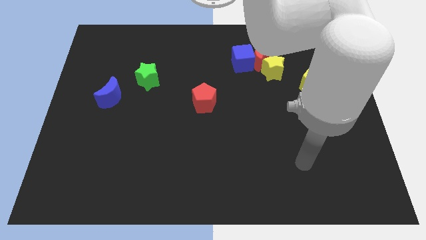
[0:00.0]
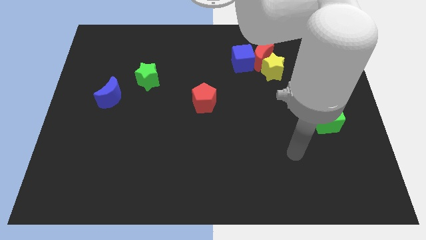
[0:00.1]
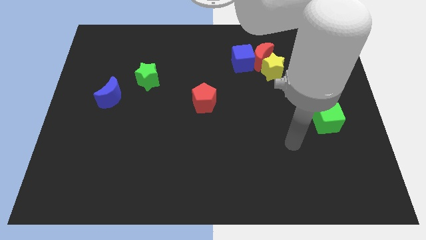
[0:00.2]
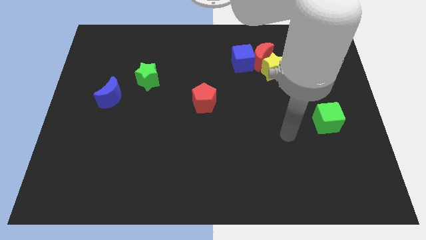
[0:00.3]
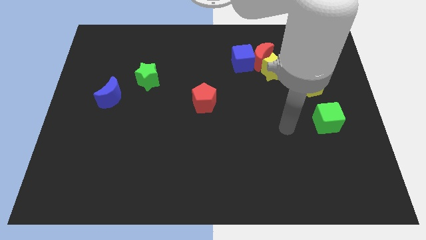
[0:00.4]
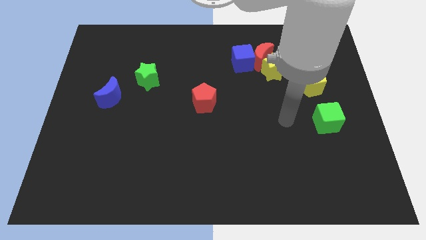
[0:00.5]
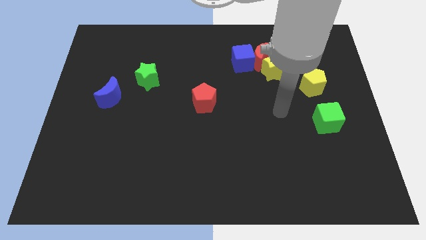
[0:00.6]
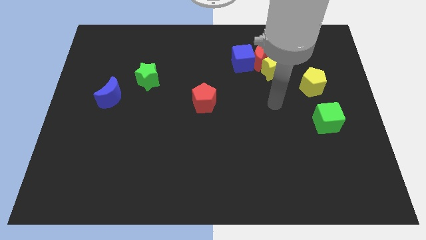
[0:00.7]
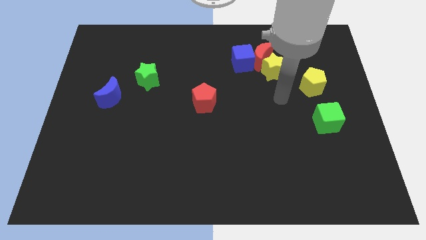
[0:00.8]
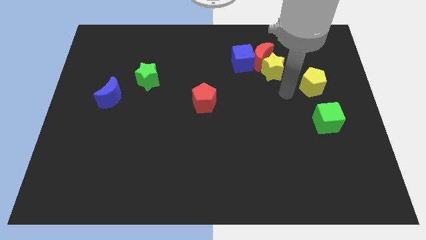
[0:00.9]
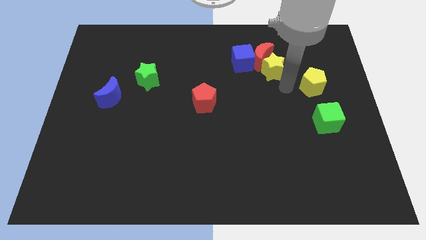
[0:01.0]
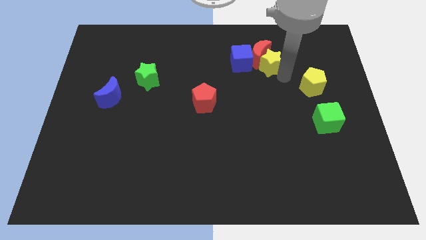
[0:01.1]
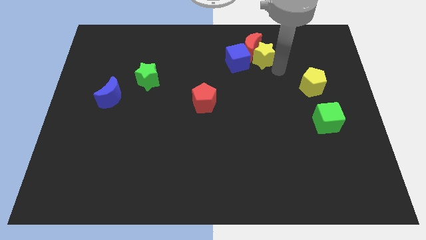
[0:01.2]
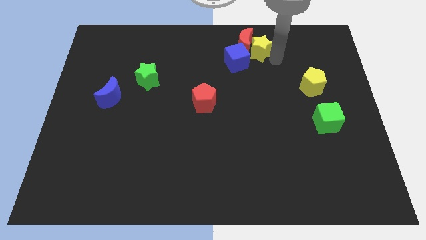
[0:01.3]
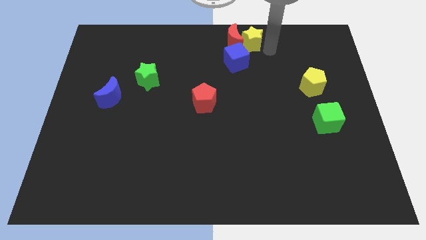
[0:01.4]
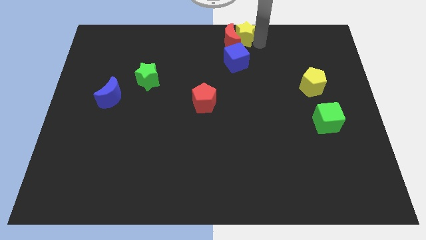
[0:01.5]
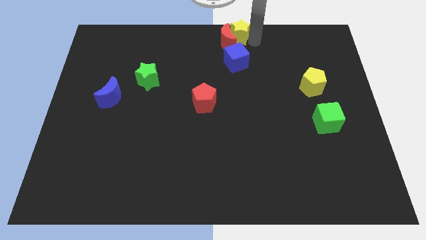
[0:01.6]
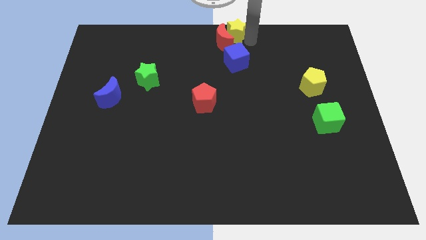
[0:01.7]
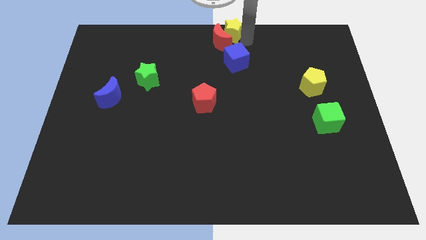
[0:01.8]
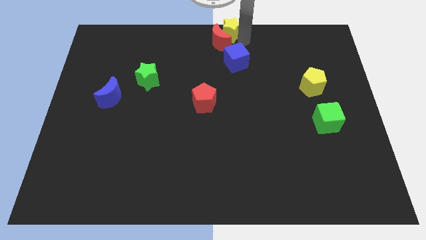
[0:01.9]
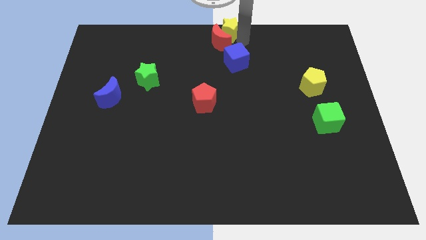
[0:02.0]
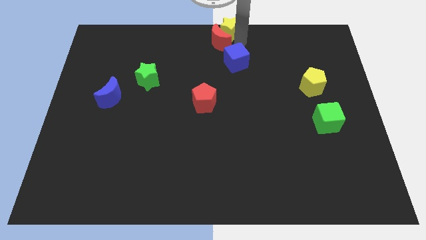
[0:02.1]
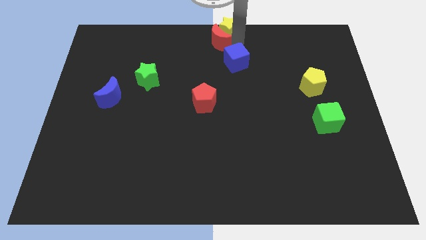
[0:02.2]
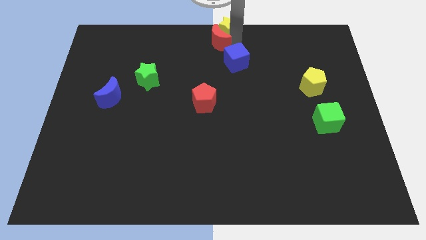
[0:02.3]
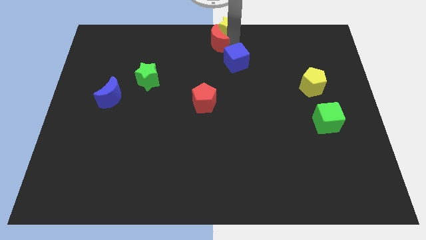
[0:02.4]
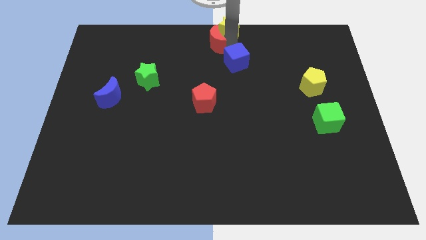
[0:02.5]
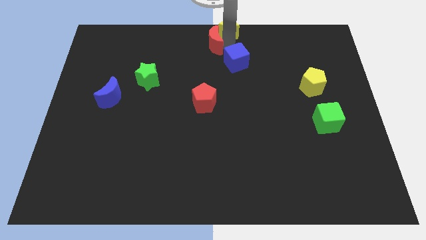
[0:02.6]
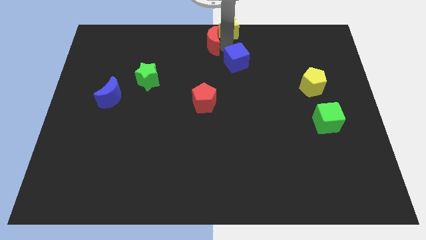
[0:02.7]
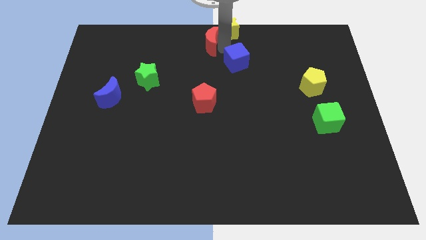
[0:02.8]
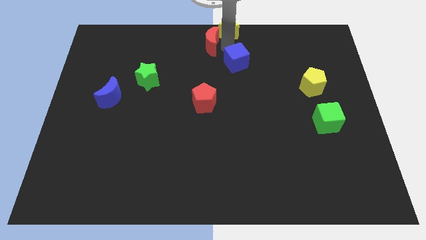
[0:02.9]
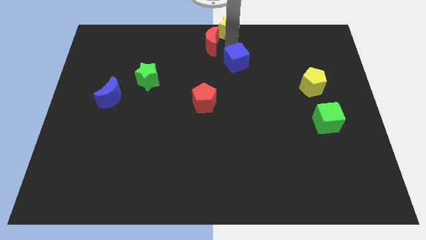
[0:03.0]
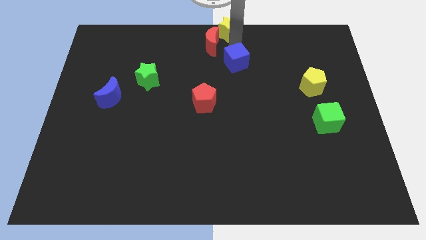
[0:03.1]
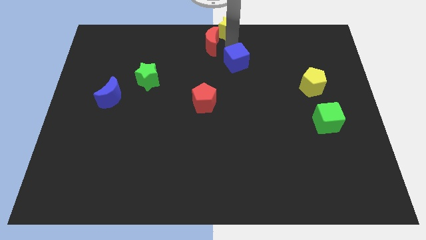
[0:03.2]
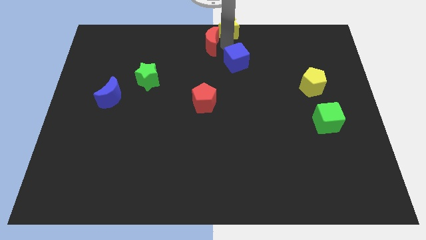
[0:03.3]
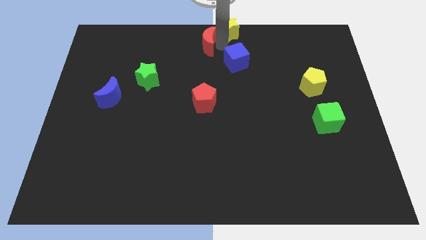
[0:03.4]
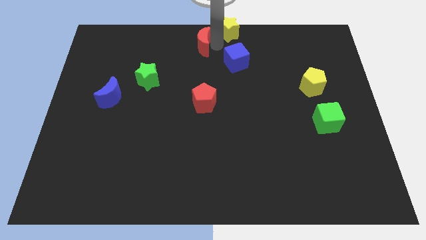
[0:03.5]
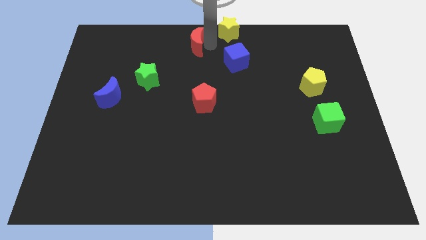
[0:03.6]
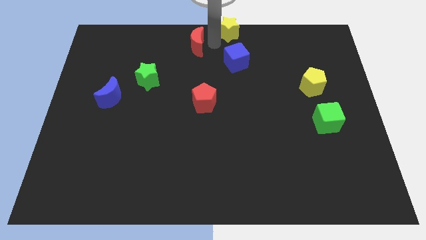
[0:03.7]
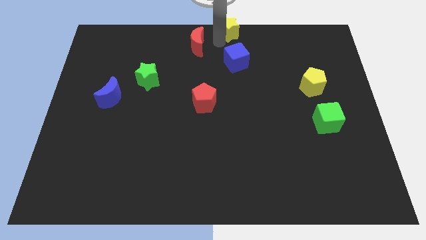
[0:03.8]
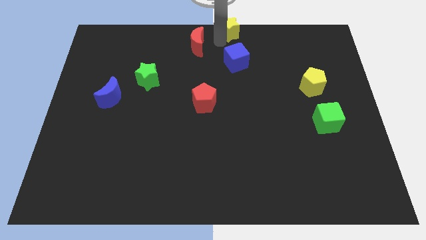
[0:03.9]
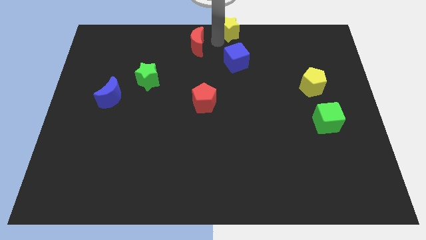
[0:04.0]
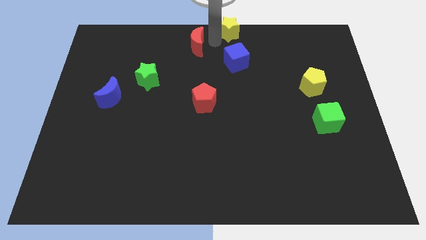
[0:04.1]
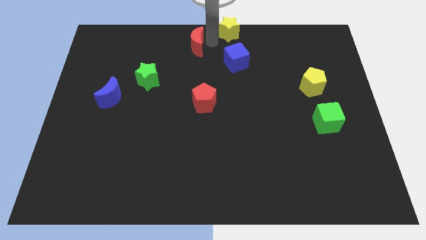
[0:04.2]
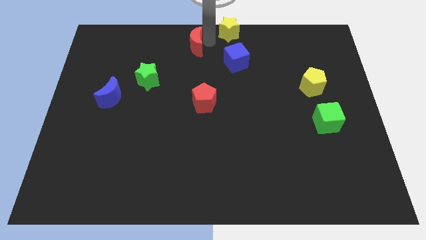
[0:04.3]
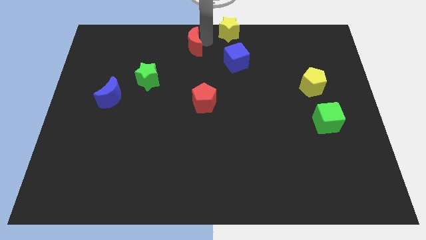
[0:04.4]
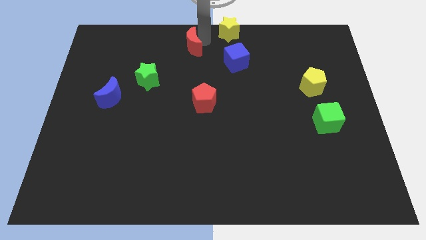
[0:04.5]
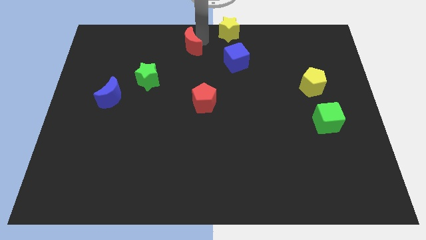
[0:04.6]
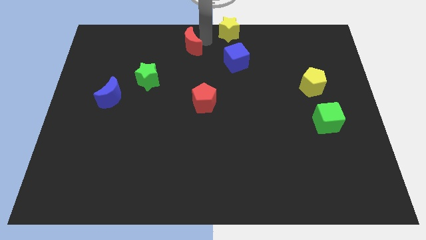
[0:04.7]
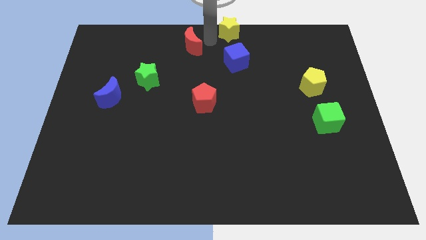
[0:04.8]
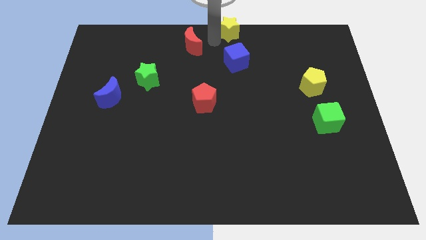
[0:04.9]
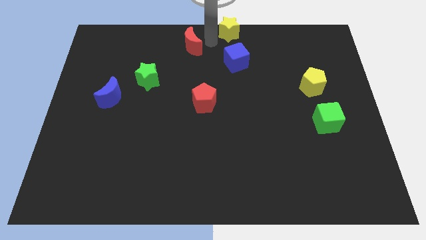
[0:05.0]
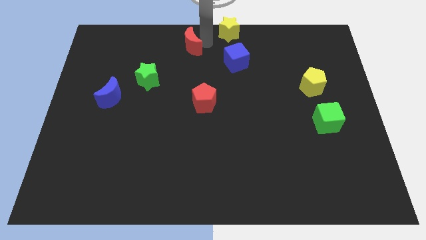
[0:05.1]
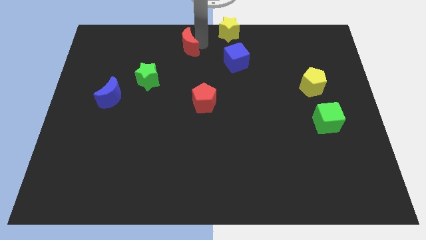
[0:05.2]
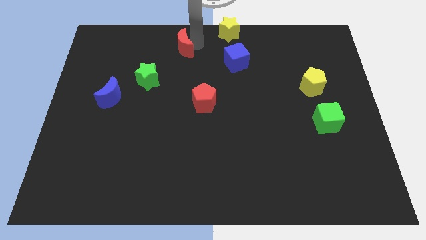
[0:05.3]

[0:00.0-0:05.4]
push the red moon to the left

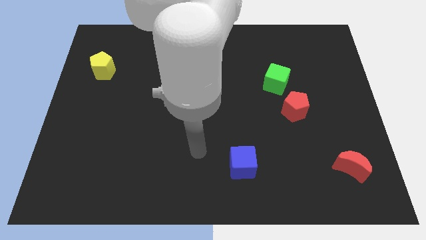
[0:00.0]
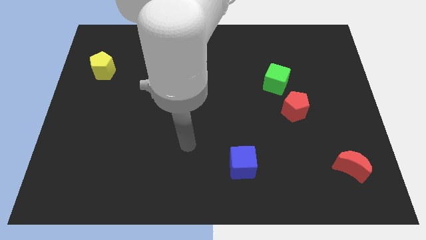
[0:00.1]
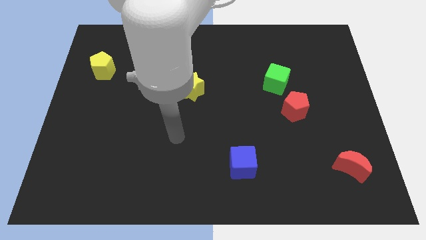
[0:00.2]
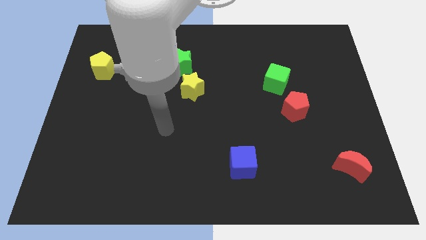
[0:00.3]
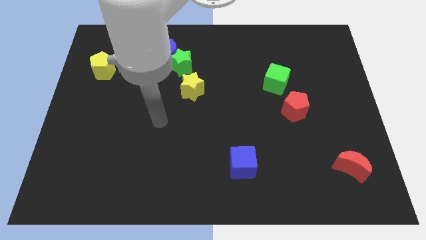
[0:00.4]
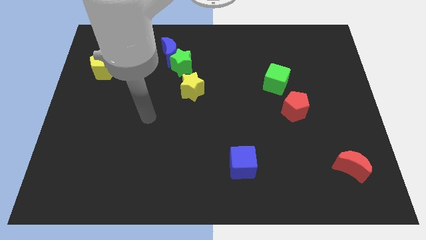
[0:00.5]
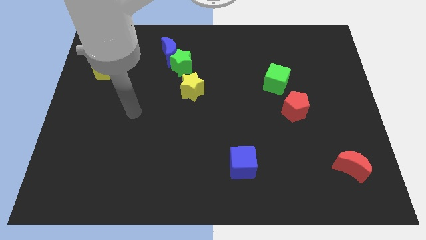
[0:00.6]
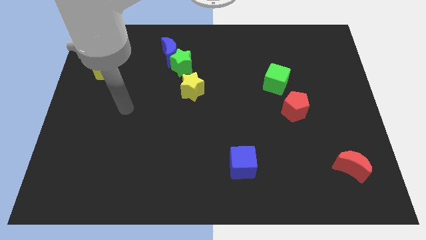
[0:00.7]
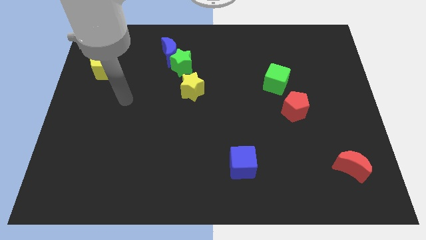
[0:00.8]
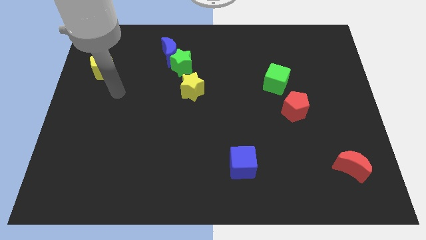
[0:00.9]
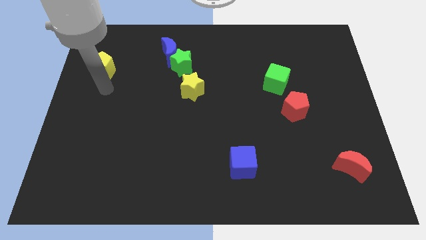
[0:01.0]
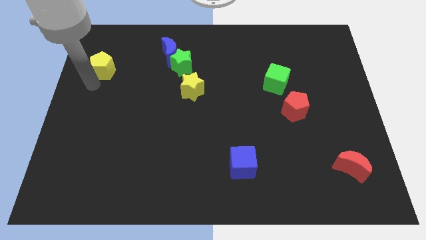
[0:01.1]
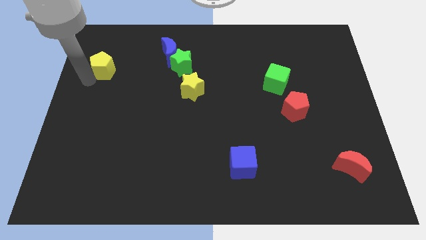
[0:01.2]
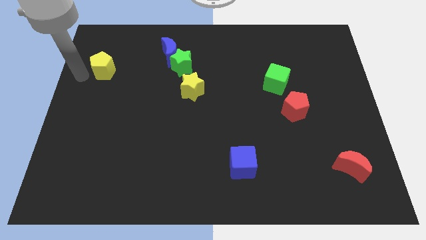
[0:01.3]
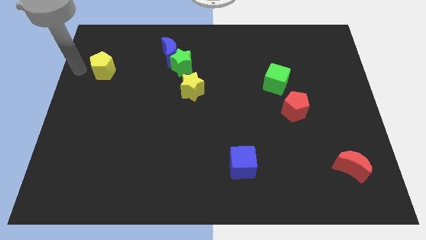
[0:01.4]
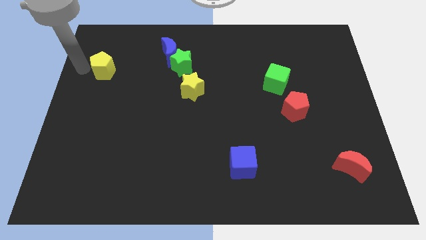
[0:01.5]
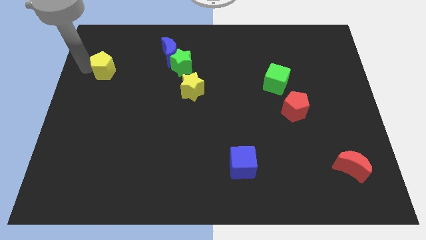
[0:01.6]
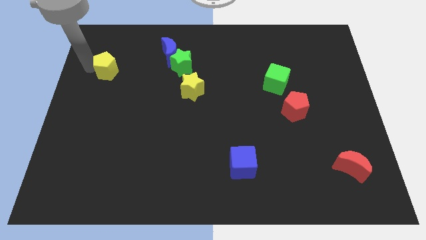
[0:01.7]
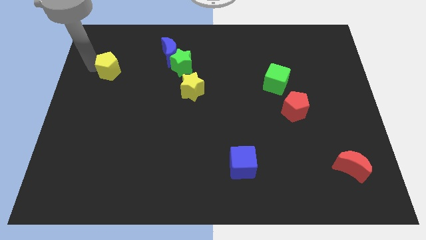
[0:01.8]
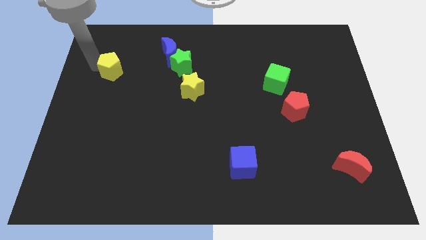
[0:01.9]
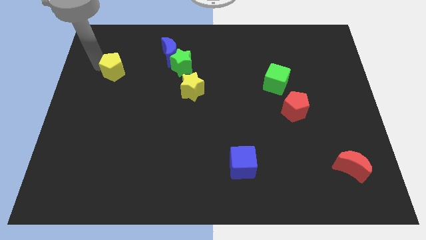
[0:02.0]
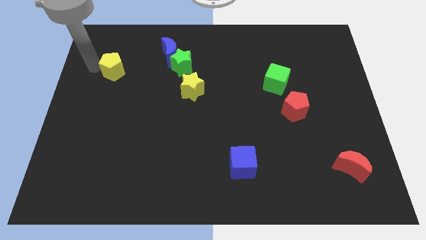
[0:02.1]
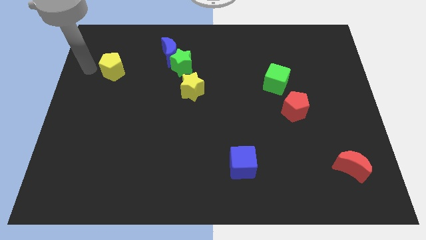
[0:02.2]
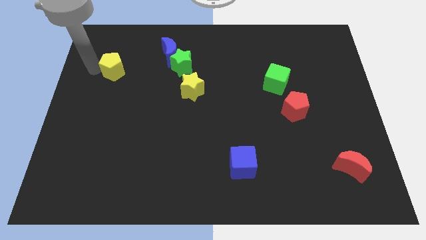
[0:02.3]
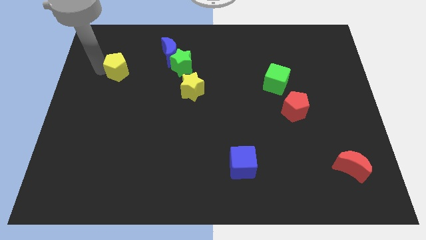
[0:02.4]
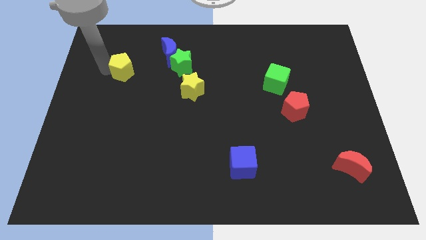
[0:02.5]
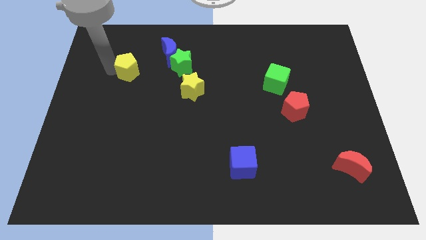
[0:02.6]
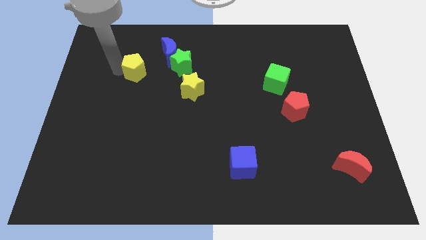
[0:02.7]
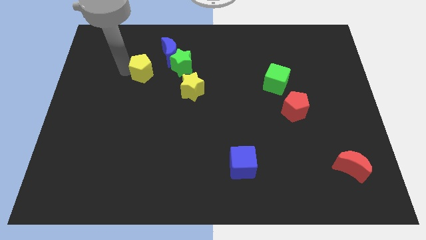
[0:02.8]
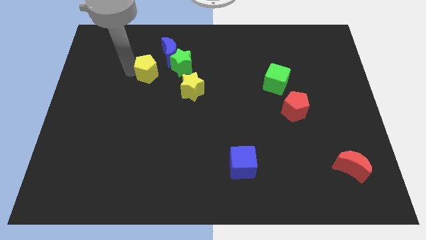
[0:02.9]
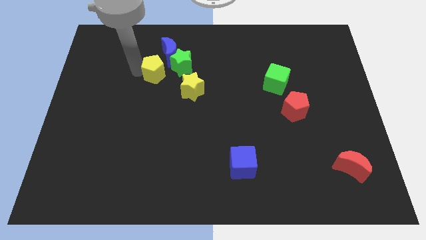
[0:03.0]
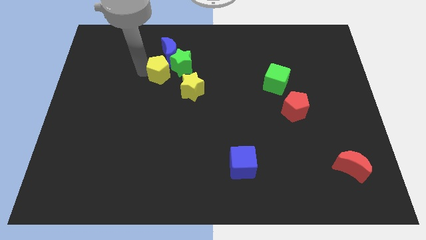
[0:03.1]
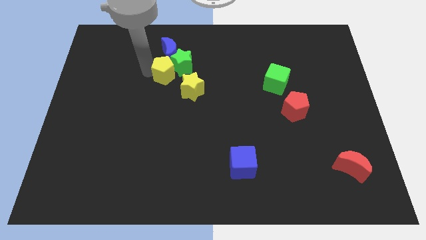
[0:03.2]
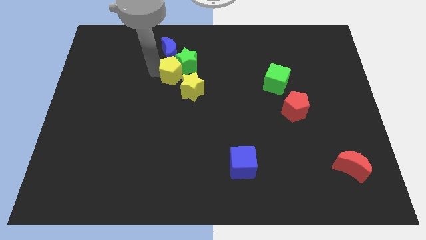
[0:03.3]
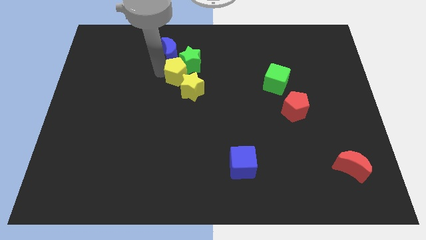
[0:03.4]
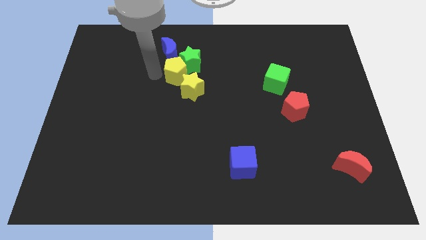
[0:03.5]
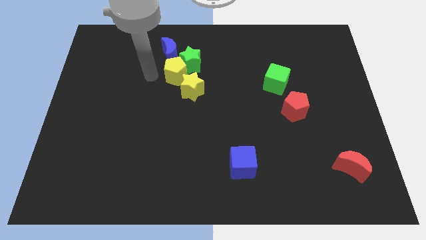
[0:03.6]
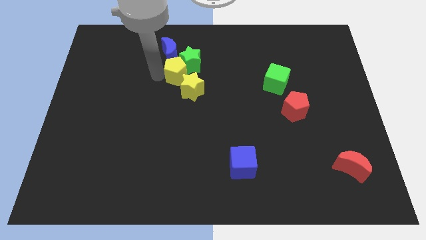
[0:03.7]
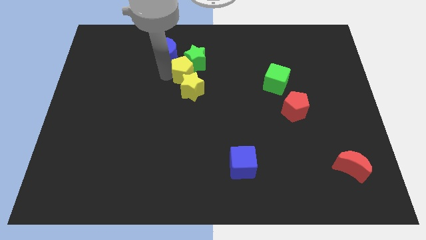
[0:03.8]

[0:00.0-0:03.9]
slide the yellow pentagon to the right
